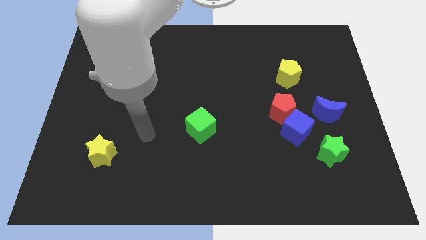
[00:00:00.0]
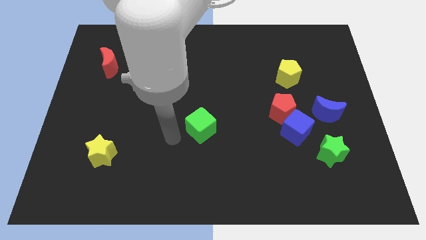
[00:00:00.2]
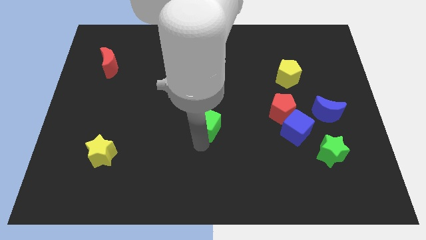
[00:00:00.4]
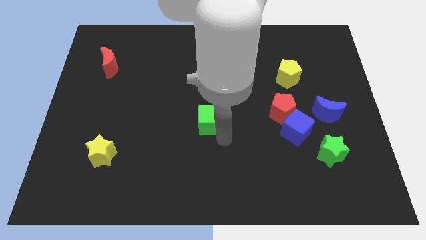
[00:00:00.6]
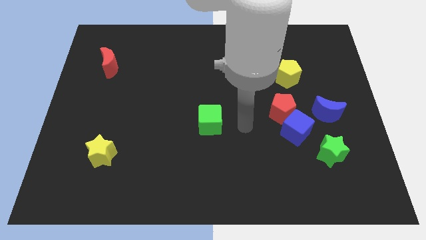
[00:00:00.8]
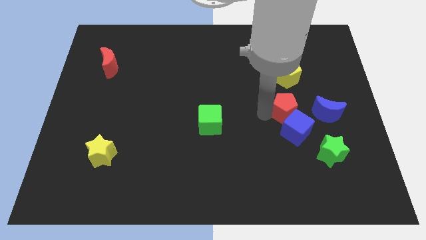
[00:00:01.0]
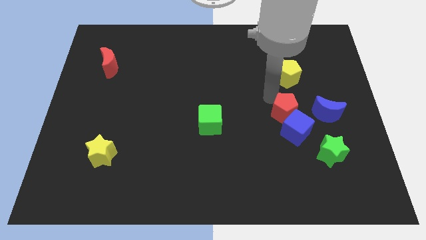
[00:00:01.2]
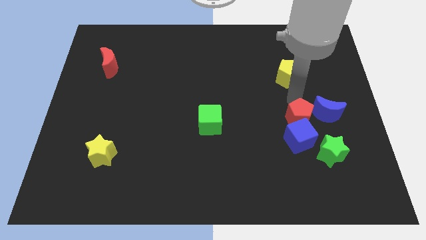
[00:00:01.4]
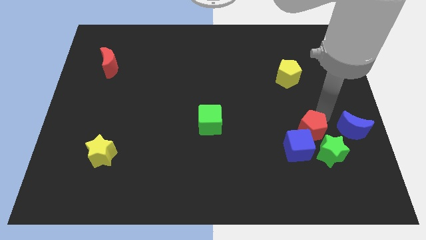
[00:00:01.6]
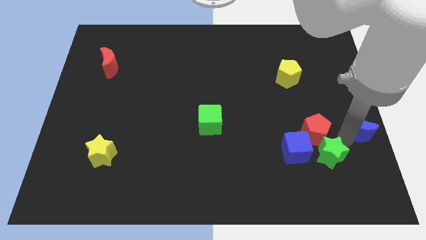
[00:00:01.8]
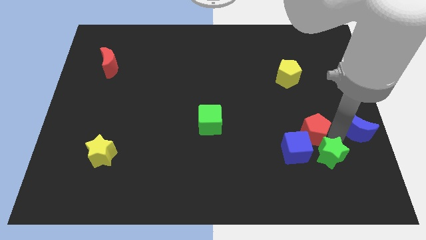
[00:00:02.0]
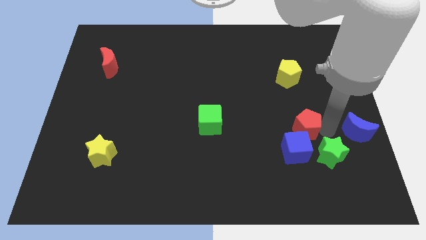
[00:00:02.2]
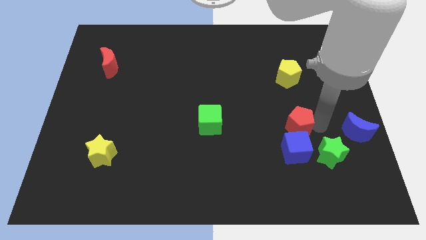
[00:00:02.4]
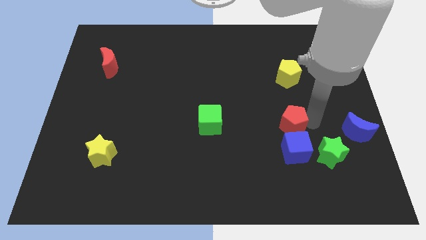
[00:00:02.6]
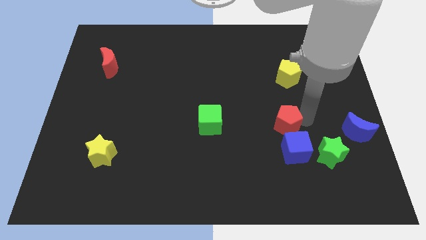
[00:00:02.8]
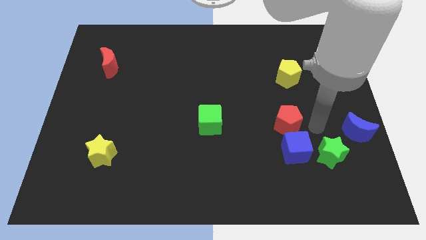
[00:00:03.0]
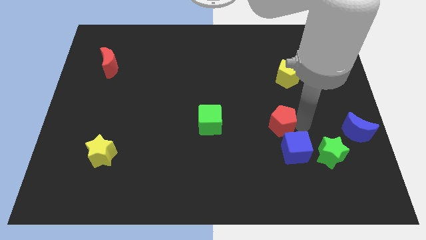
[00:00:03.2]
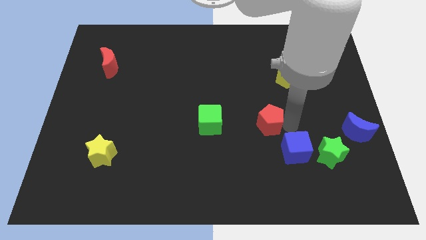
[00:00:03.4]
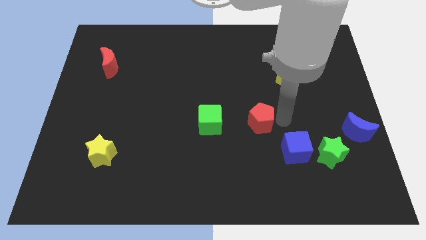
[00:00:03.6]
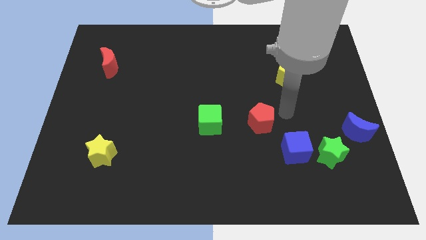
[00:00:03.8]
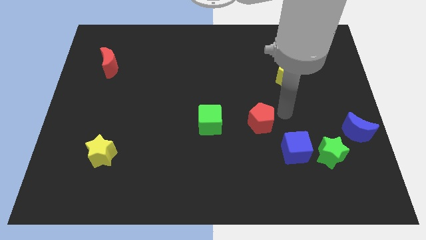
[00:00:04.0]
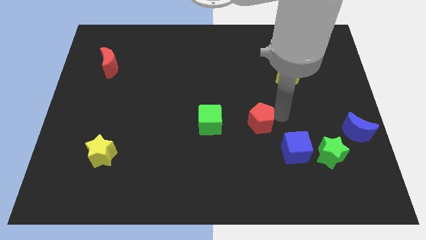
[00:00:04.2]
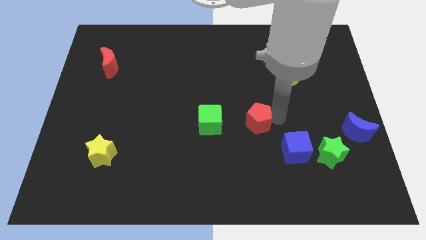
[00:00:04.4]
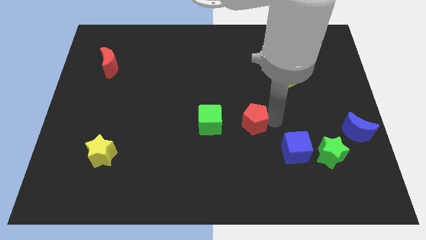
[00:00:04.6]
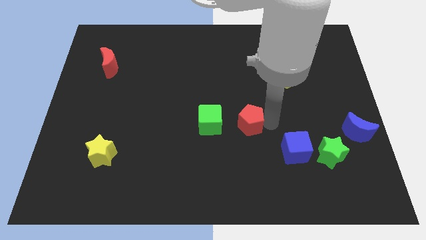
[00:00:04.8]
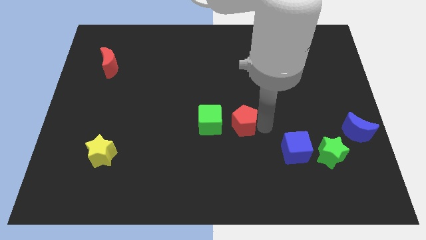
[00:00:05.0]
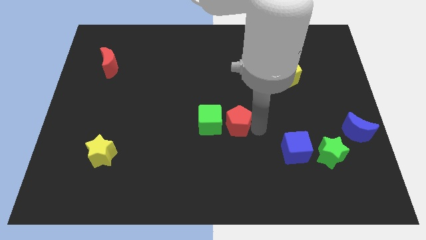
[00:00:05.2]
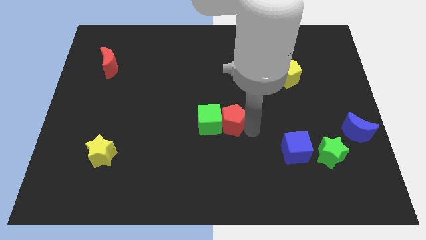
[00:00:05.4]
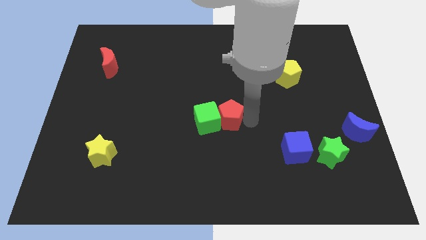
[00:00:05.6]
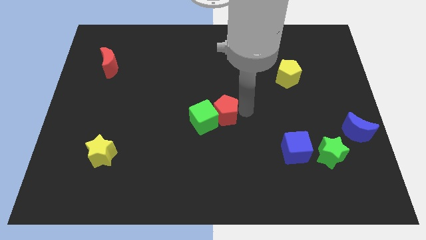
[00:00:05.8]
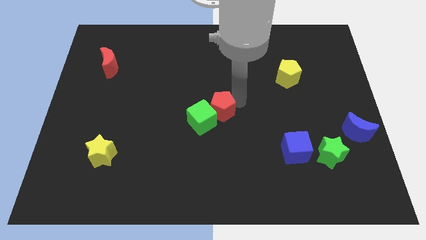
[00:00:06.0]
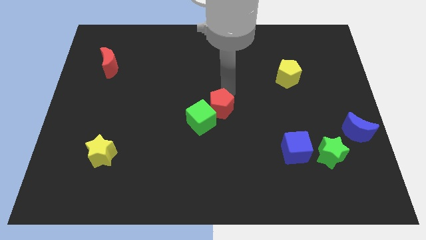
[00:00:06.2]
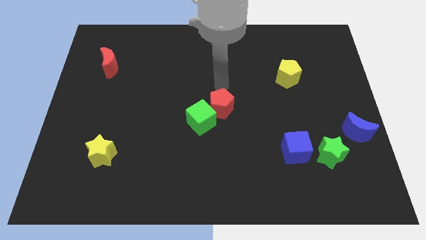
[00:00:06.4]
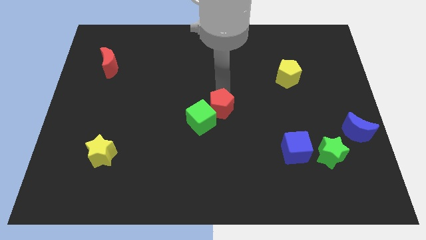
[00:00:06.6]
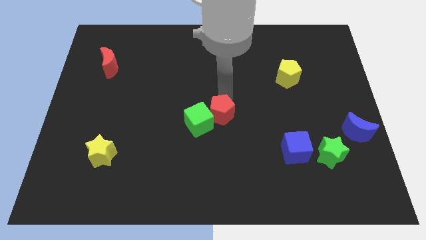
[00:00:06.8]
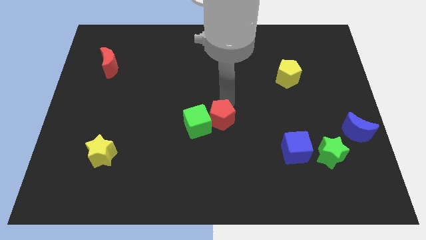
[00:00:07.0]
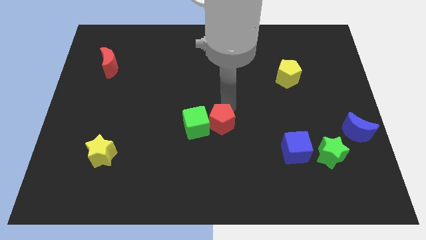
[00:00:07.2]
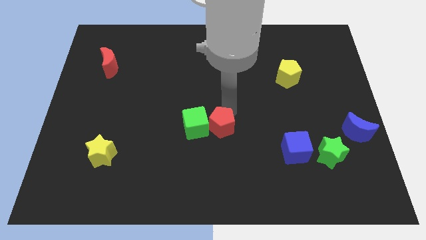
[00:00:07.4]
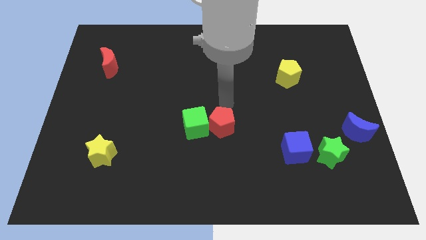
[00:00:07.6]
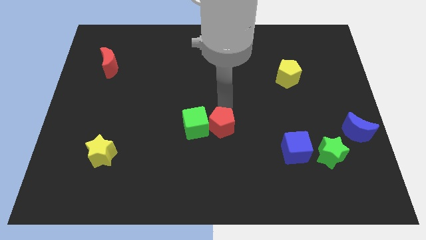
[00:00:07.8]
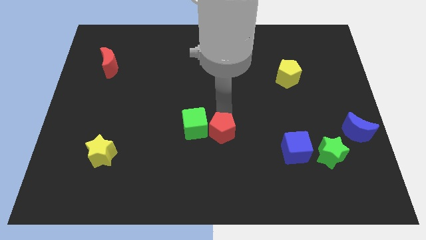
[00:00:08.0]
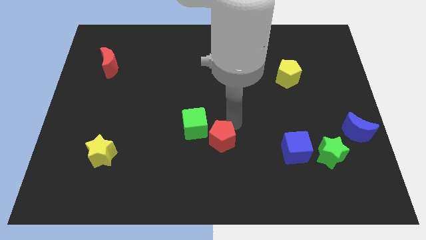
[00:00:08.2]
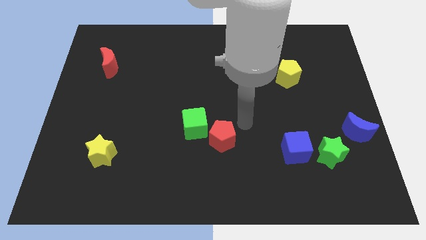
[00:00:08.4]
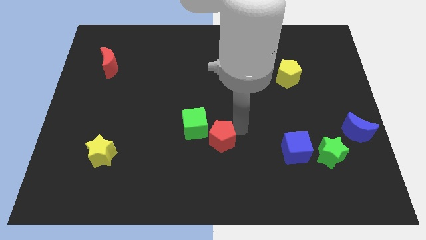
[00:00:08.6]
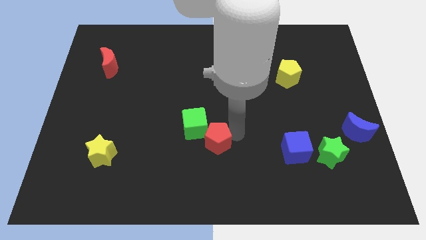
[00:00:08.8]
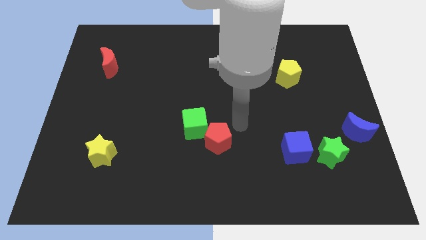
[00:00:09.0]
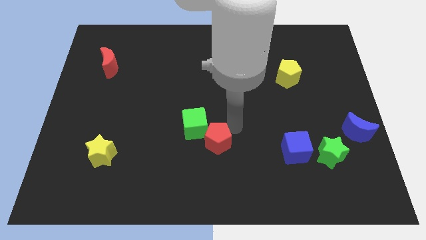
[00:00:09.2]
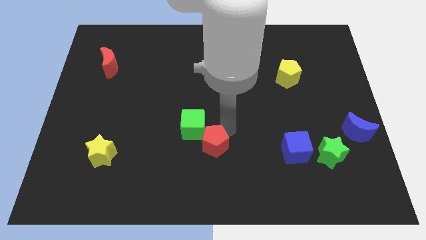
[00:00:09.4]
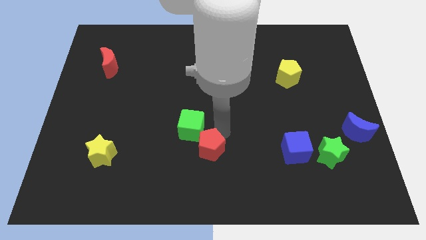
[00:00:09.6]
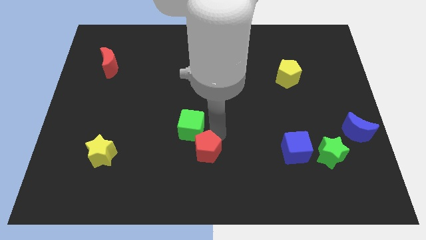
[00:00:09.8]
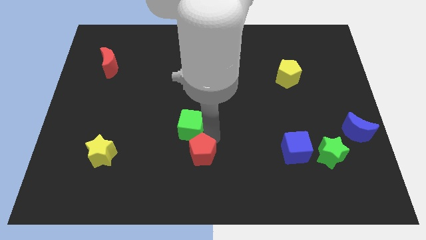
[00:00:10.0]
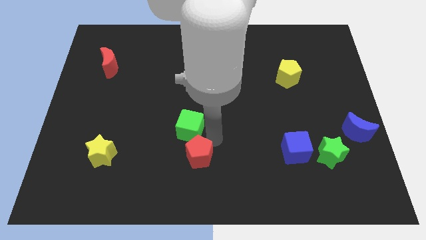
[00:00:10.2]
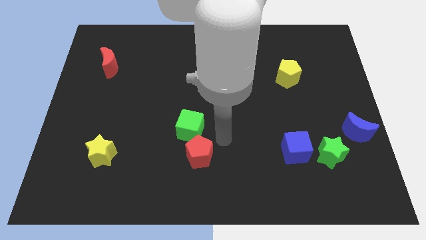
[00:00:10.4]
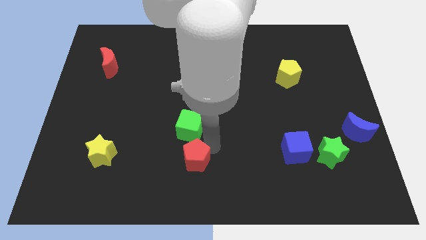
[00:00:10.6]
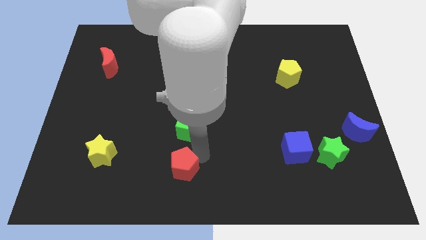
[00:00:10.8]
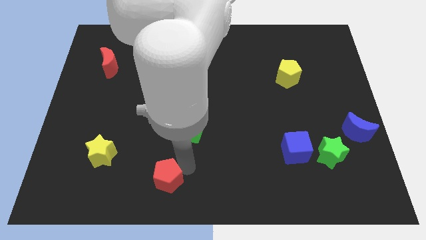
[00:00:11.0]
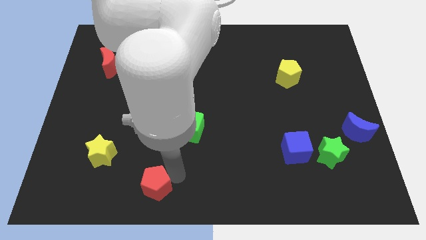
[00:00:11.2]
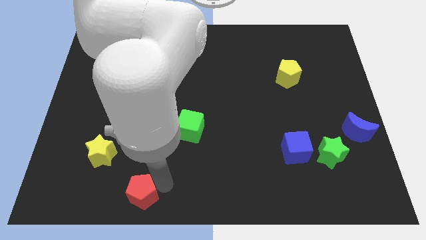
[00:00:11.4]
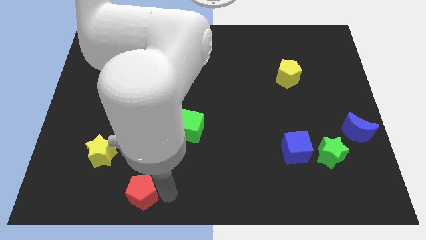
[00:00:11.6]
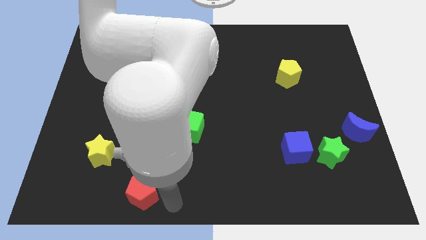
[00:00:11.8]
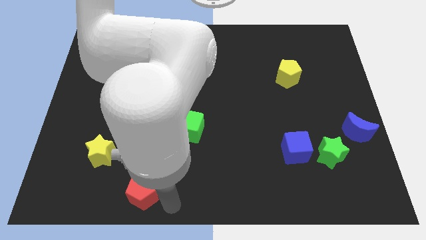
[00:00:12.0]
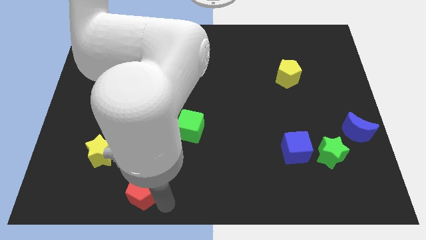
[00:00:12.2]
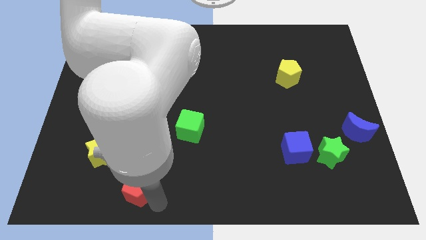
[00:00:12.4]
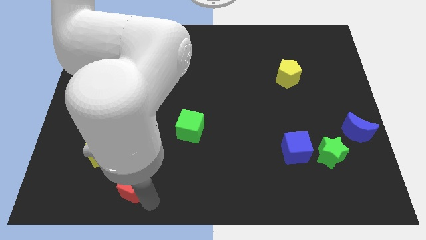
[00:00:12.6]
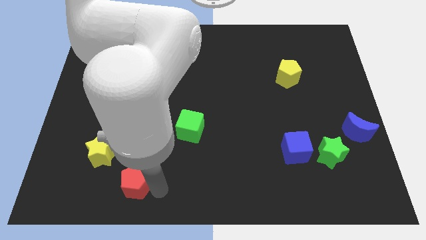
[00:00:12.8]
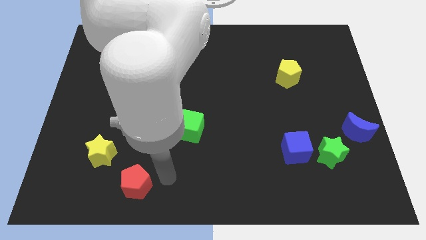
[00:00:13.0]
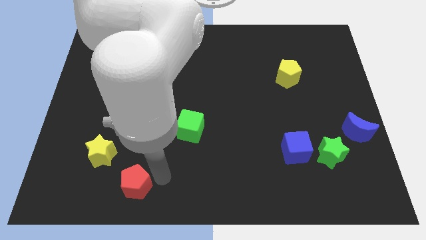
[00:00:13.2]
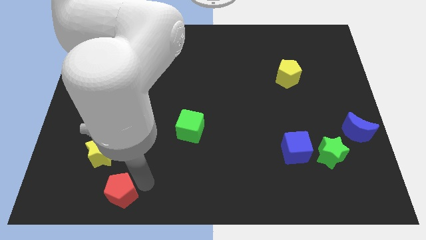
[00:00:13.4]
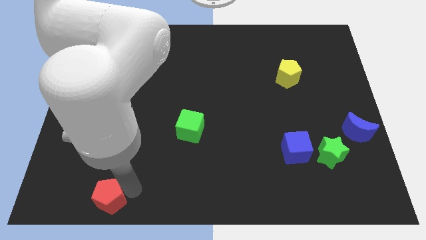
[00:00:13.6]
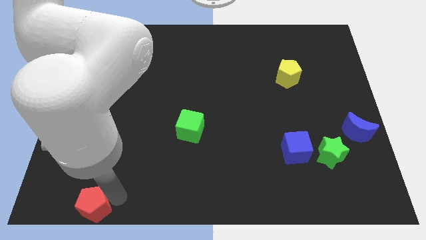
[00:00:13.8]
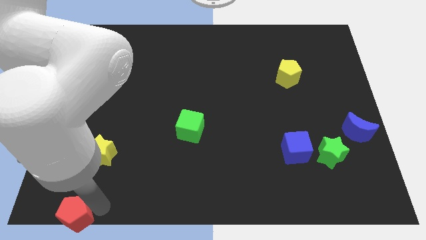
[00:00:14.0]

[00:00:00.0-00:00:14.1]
put the red pentagon to the bottom left
